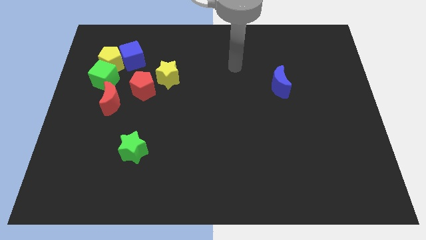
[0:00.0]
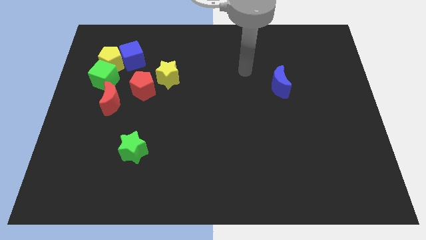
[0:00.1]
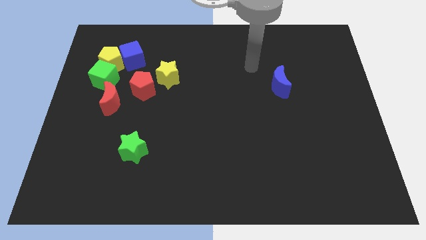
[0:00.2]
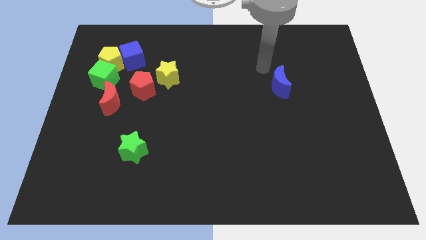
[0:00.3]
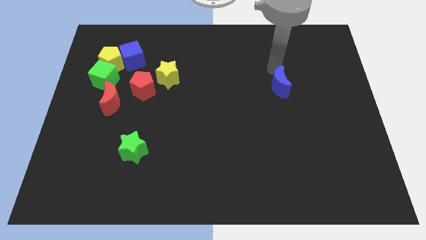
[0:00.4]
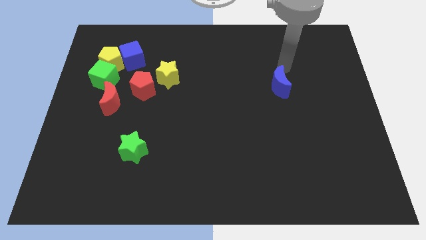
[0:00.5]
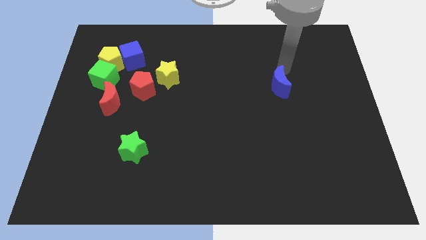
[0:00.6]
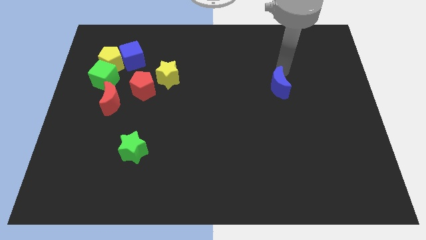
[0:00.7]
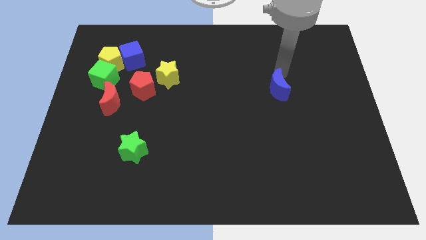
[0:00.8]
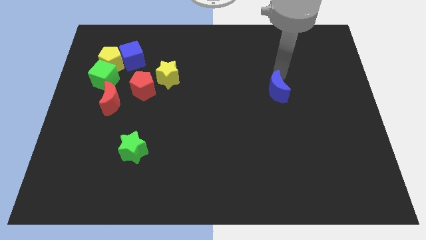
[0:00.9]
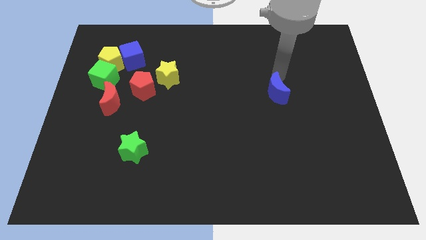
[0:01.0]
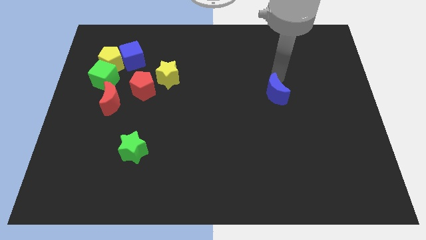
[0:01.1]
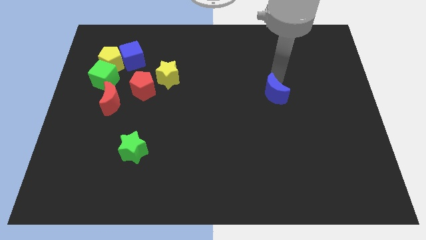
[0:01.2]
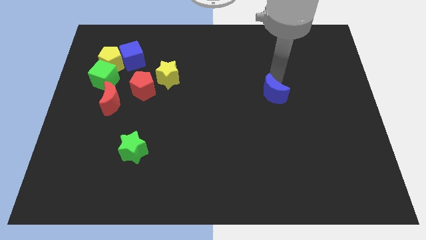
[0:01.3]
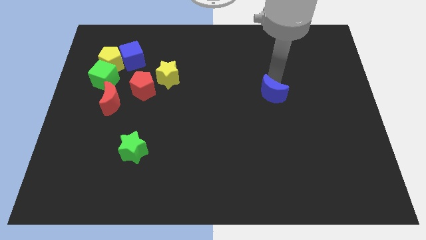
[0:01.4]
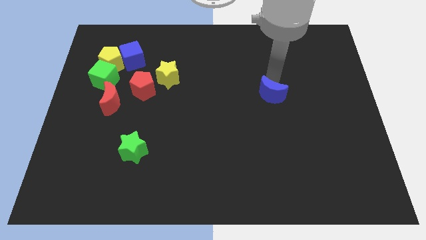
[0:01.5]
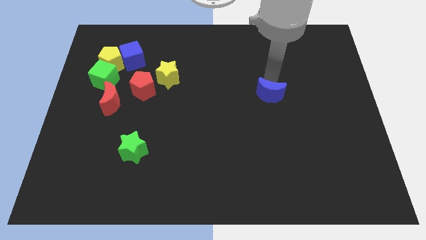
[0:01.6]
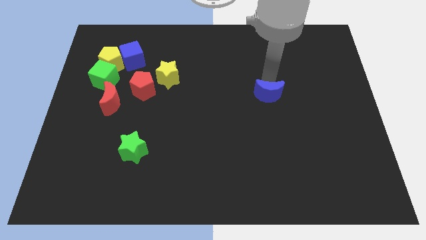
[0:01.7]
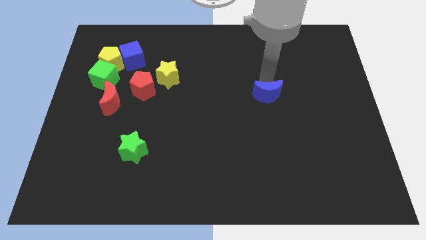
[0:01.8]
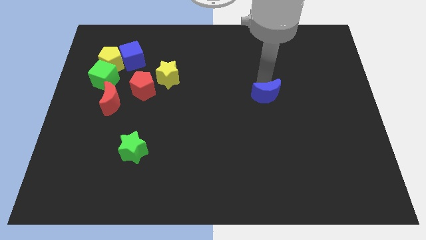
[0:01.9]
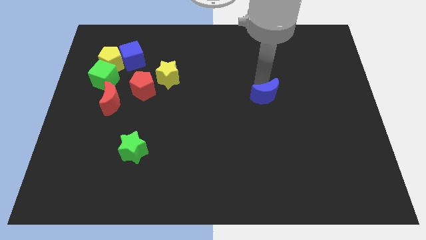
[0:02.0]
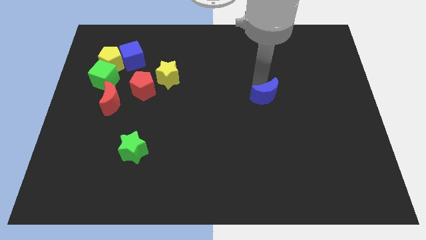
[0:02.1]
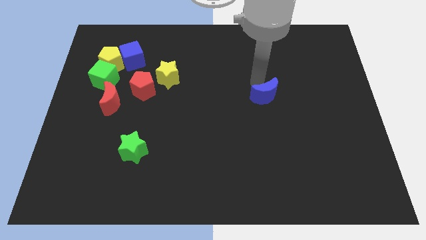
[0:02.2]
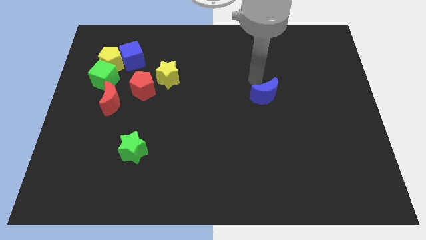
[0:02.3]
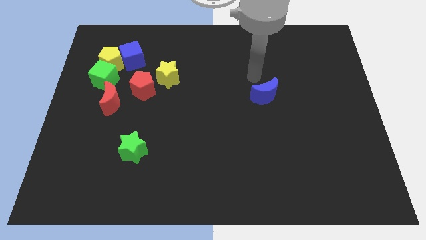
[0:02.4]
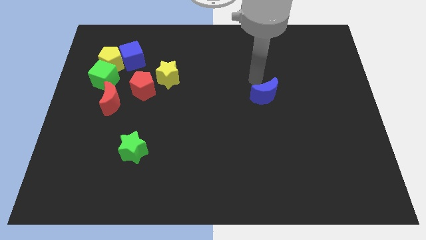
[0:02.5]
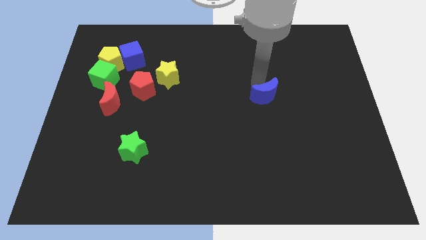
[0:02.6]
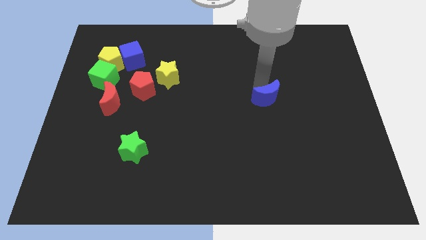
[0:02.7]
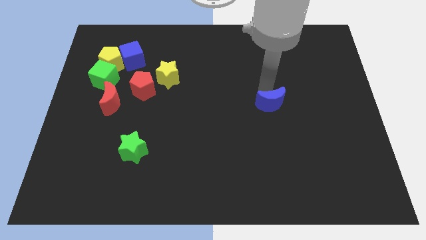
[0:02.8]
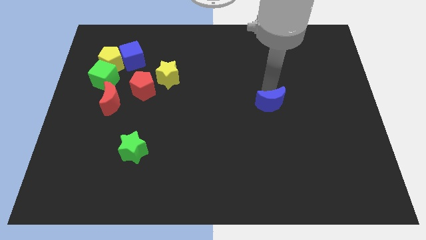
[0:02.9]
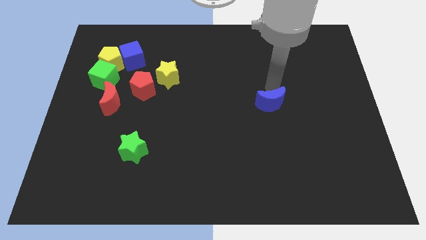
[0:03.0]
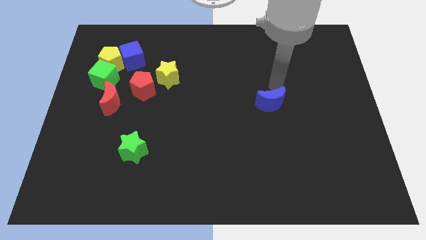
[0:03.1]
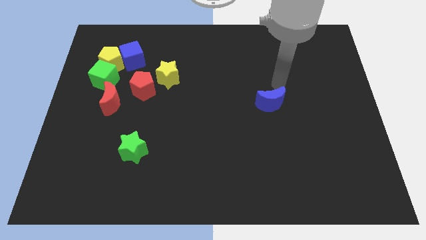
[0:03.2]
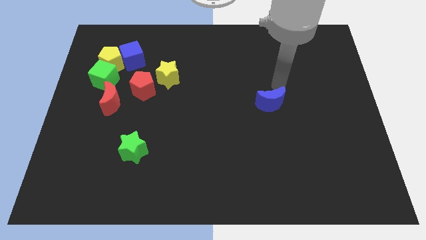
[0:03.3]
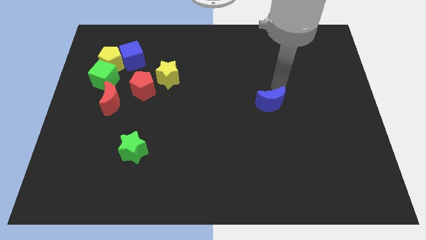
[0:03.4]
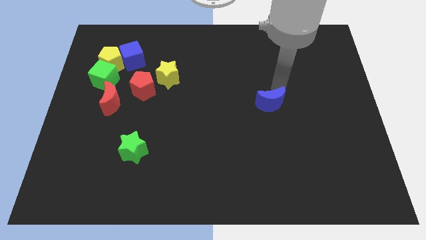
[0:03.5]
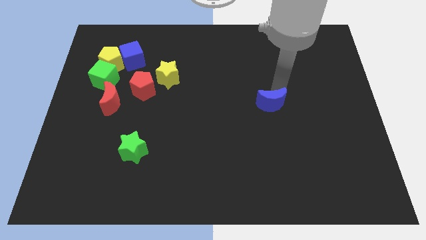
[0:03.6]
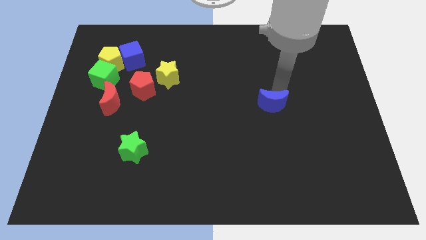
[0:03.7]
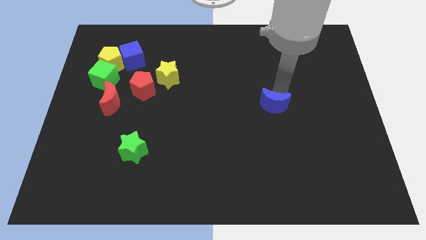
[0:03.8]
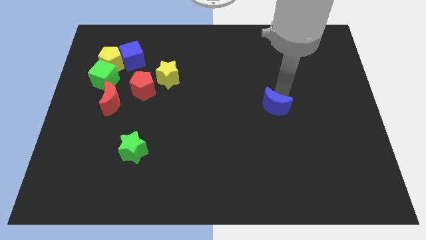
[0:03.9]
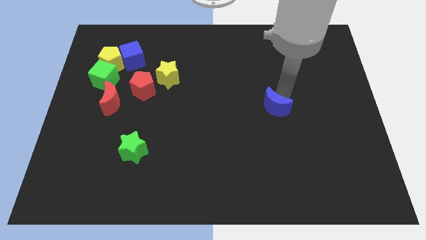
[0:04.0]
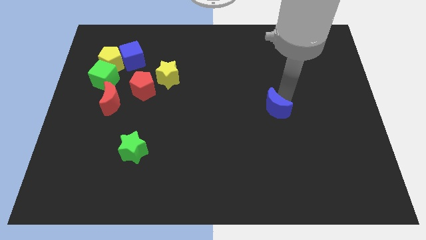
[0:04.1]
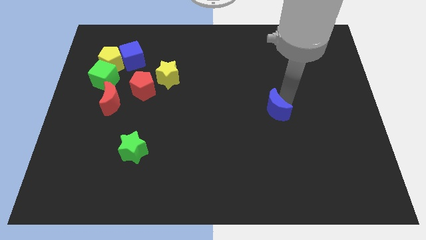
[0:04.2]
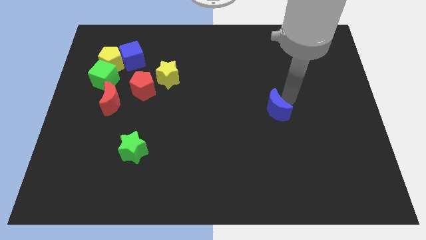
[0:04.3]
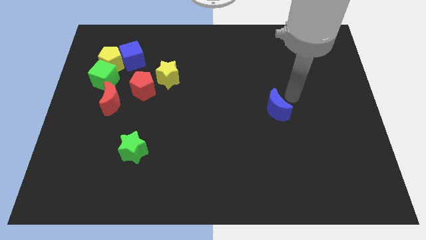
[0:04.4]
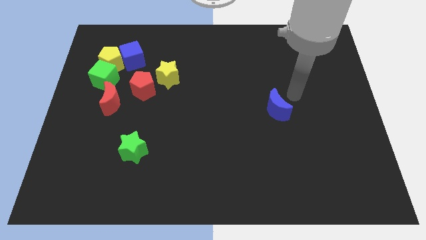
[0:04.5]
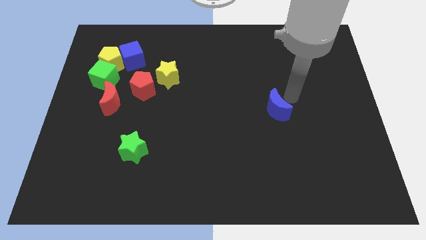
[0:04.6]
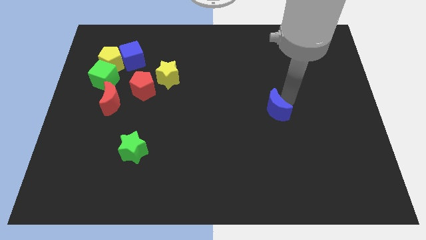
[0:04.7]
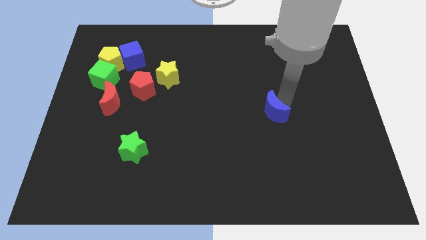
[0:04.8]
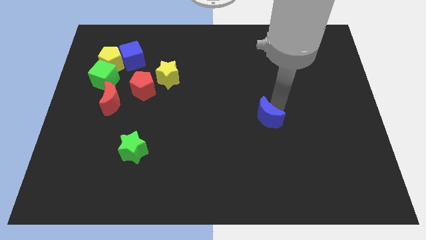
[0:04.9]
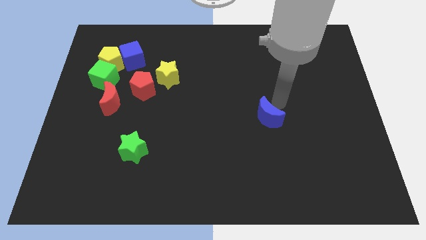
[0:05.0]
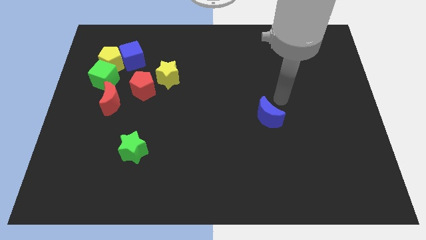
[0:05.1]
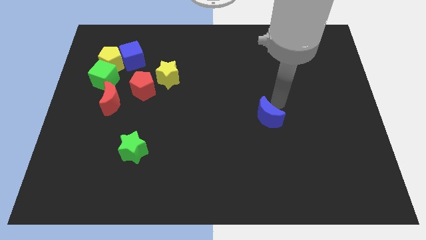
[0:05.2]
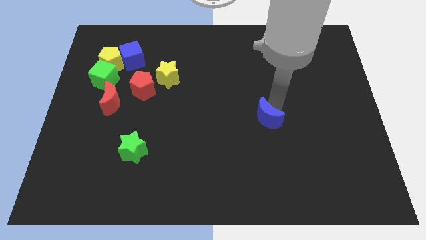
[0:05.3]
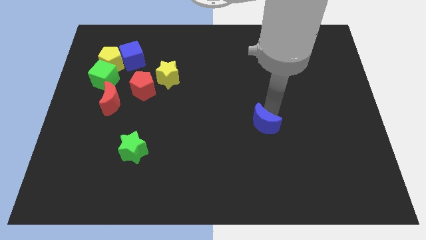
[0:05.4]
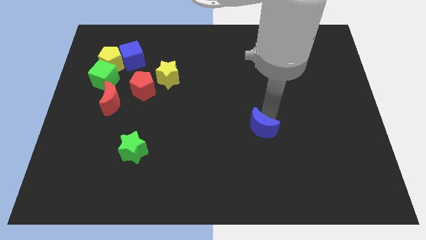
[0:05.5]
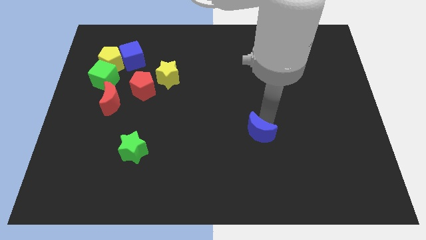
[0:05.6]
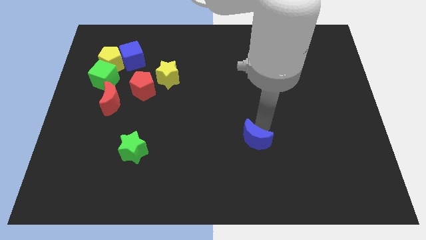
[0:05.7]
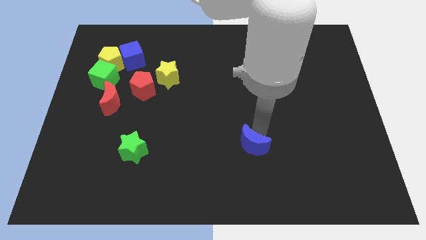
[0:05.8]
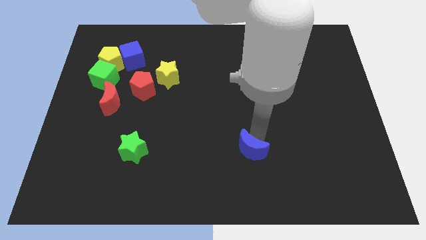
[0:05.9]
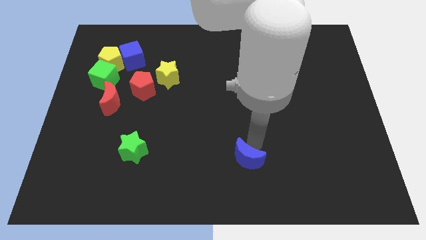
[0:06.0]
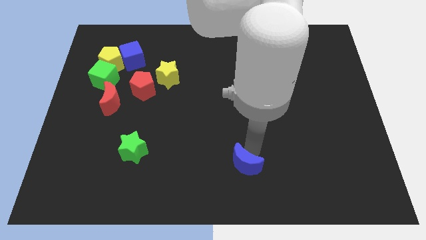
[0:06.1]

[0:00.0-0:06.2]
push the blue moon to the bottom

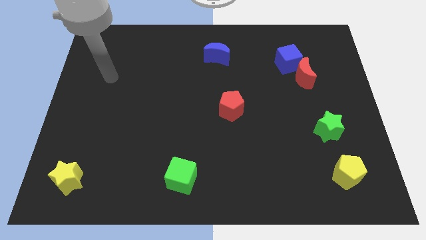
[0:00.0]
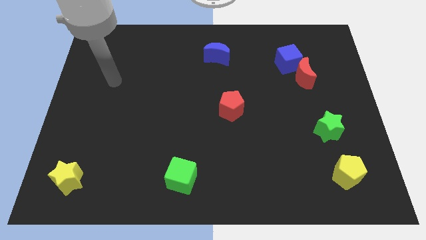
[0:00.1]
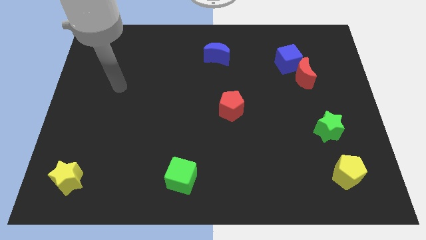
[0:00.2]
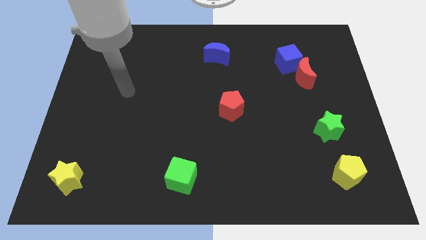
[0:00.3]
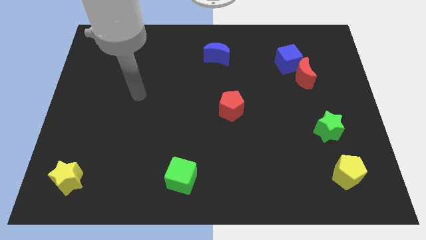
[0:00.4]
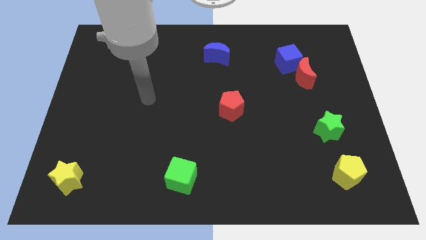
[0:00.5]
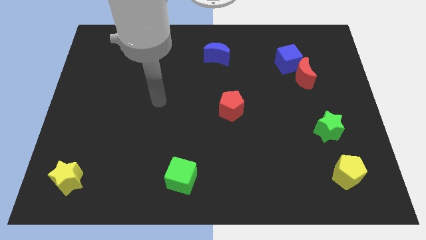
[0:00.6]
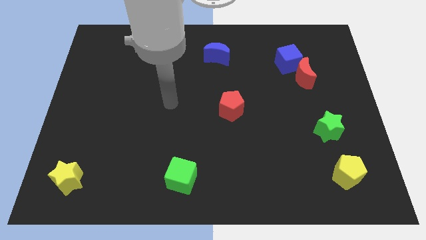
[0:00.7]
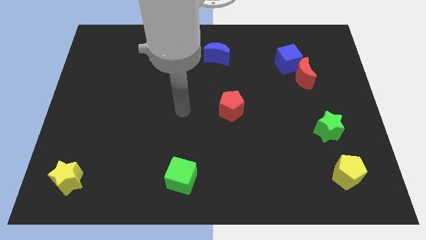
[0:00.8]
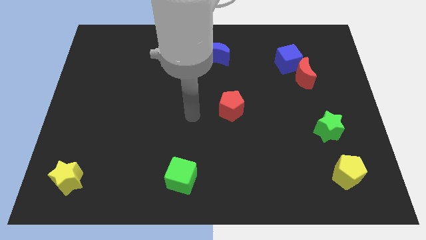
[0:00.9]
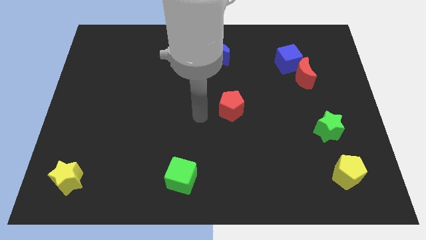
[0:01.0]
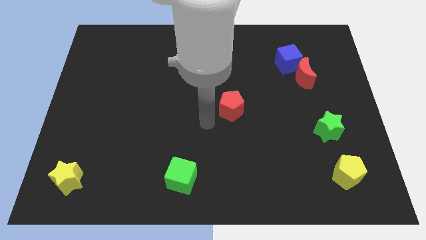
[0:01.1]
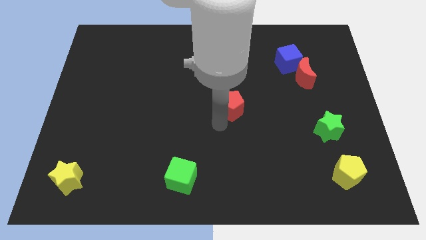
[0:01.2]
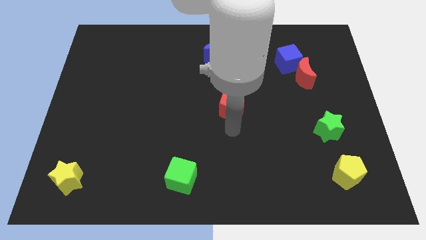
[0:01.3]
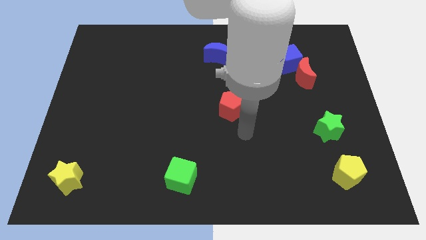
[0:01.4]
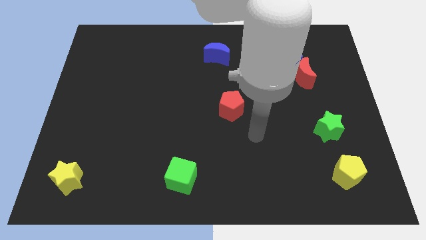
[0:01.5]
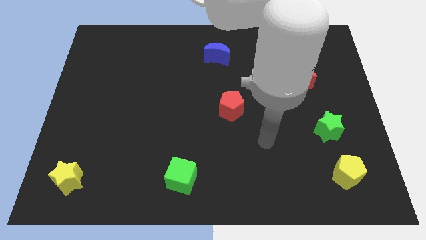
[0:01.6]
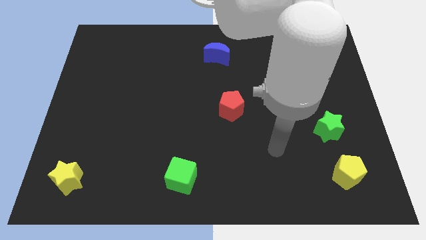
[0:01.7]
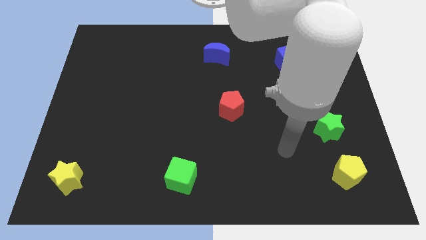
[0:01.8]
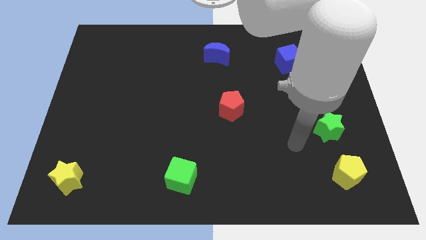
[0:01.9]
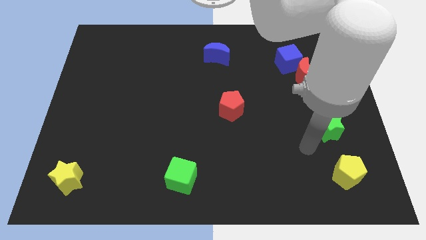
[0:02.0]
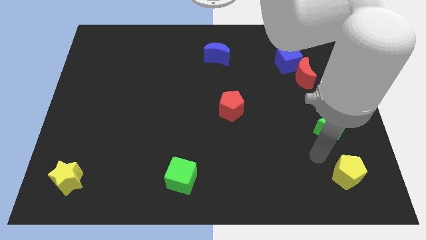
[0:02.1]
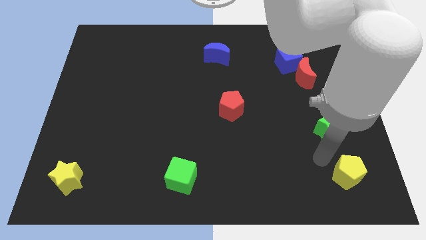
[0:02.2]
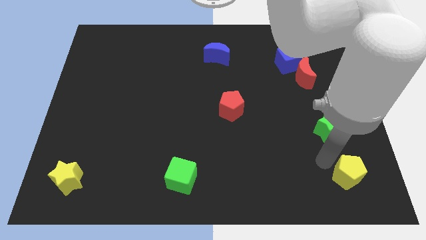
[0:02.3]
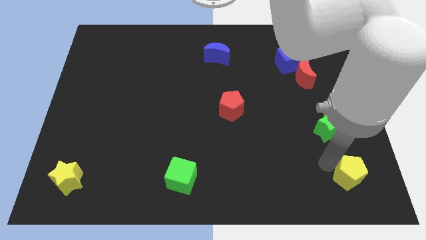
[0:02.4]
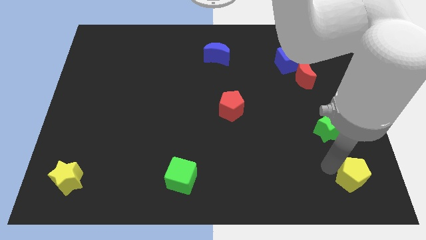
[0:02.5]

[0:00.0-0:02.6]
slide the yellow pentagon to the bottom right of the board
